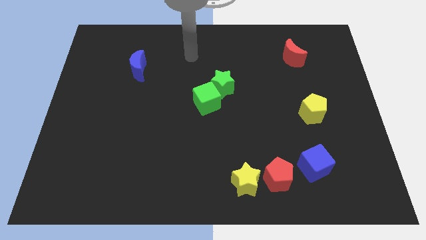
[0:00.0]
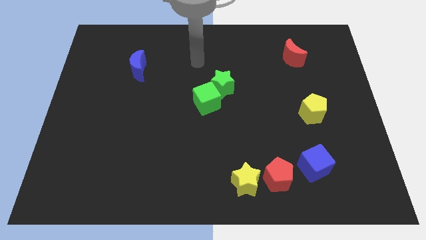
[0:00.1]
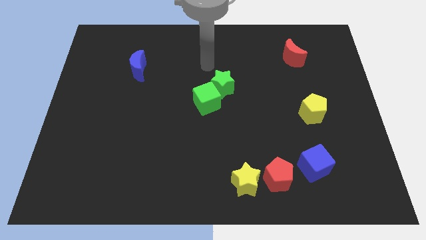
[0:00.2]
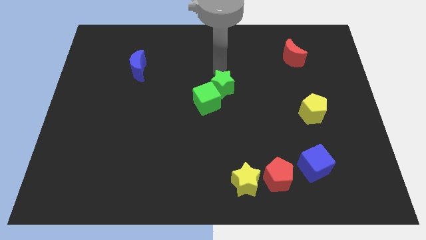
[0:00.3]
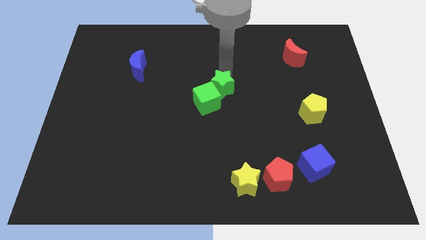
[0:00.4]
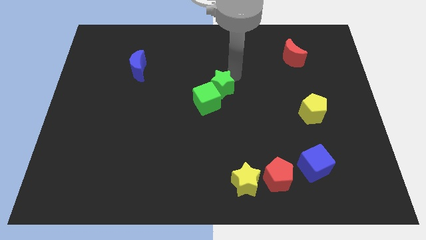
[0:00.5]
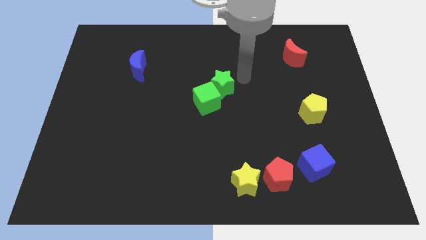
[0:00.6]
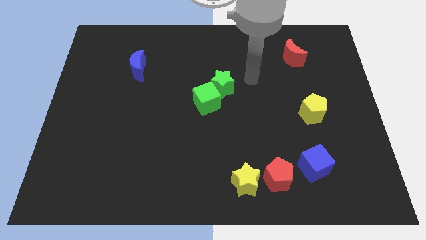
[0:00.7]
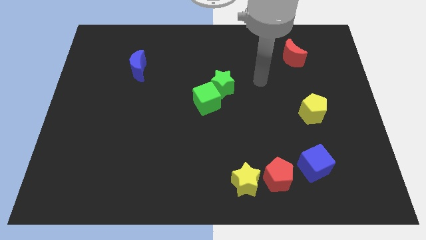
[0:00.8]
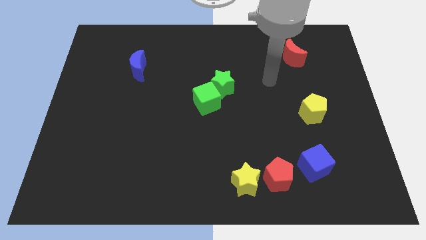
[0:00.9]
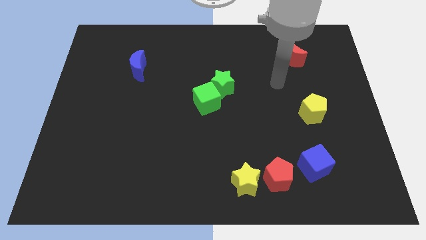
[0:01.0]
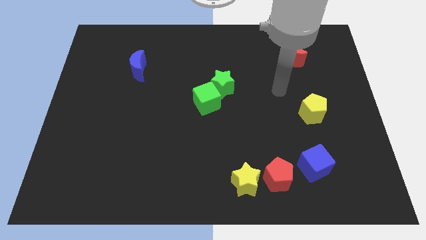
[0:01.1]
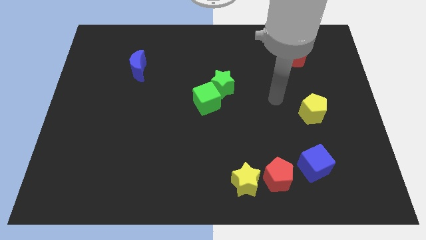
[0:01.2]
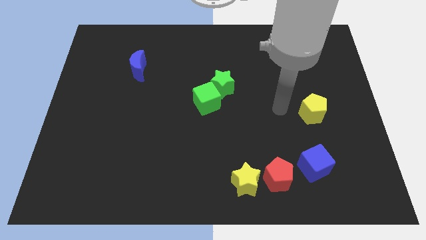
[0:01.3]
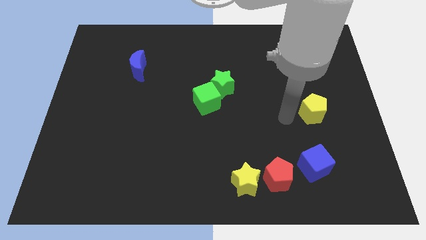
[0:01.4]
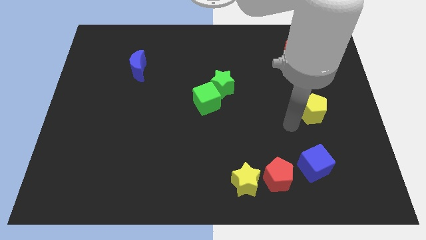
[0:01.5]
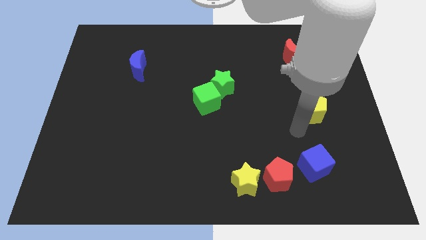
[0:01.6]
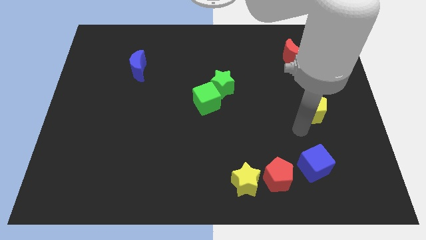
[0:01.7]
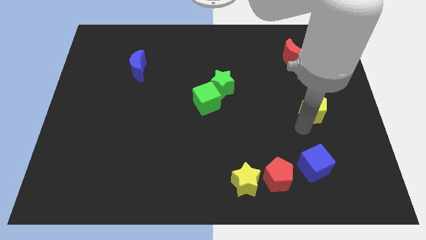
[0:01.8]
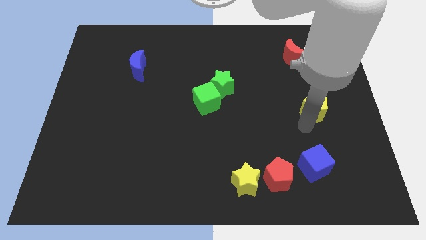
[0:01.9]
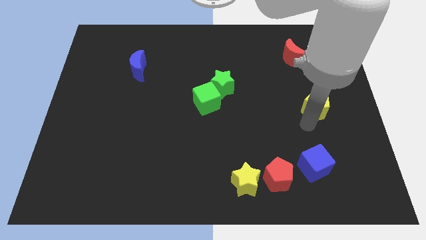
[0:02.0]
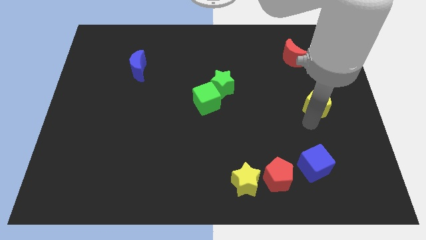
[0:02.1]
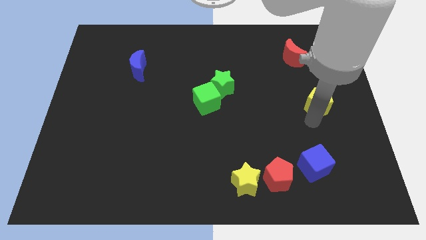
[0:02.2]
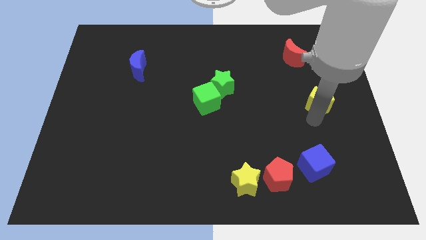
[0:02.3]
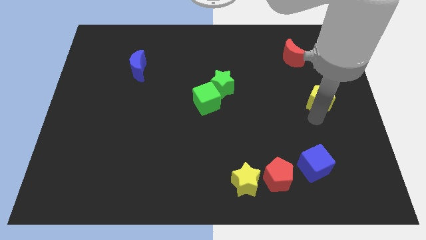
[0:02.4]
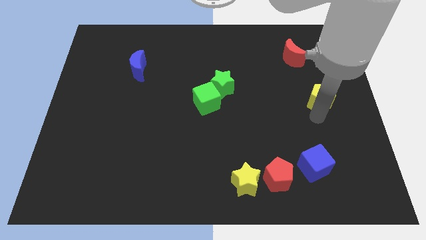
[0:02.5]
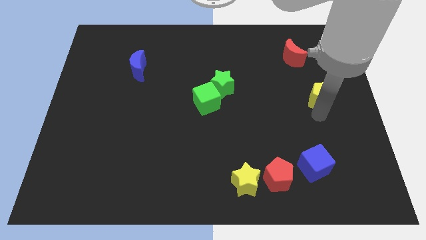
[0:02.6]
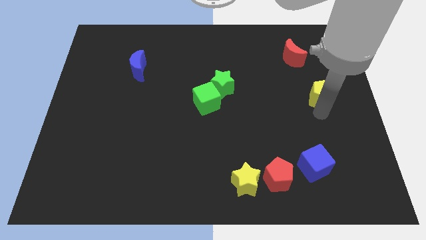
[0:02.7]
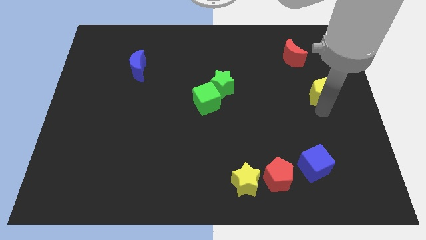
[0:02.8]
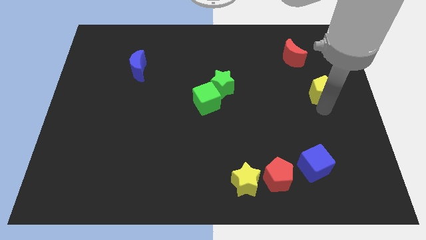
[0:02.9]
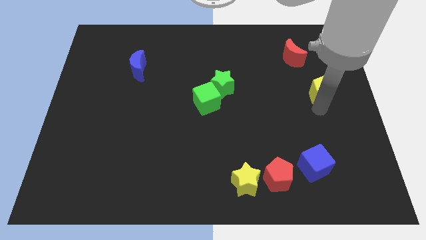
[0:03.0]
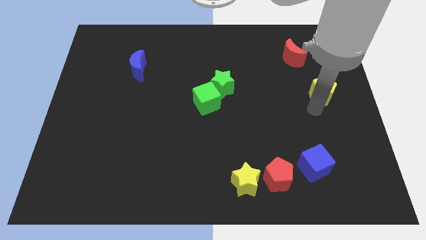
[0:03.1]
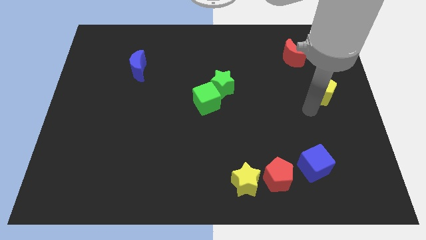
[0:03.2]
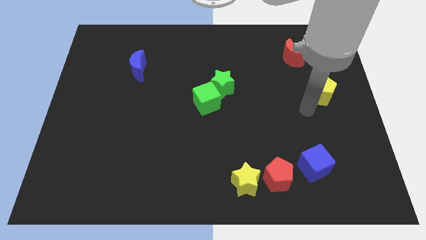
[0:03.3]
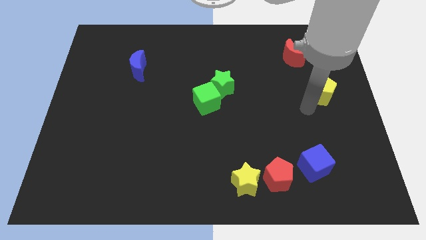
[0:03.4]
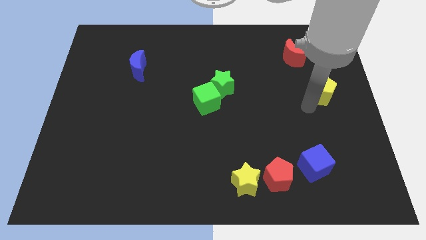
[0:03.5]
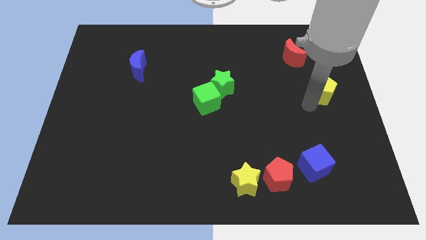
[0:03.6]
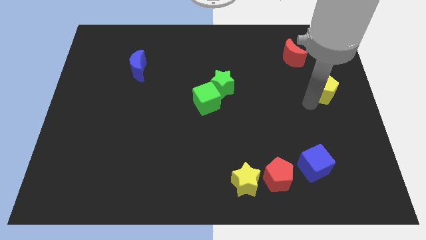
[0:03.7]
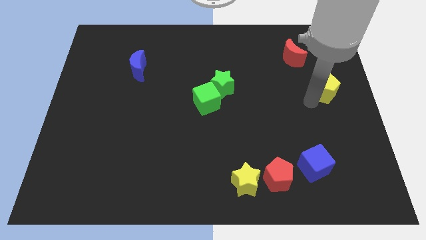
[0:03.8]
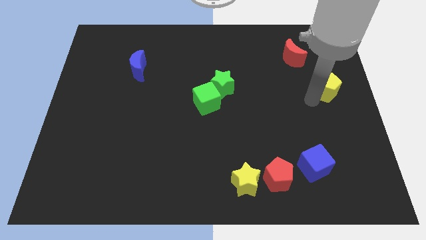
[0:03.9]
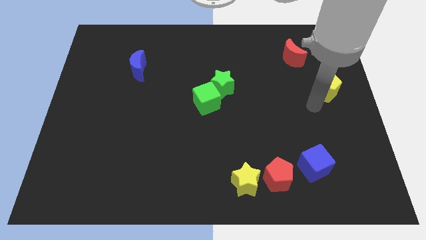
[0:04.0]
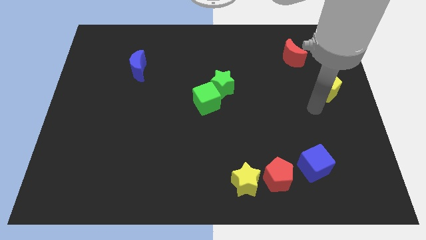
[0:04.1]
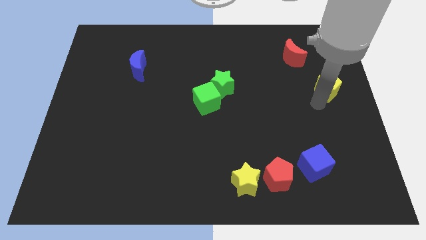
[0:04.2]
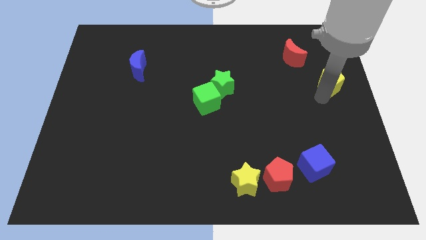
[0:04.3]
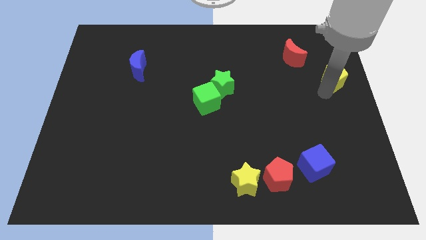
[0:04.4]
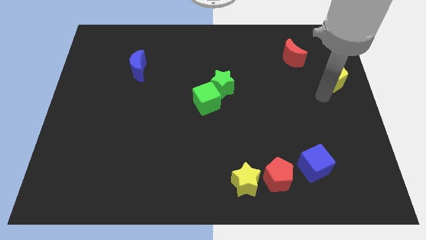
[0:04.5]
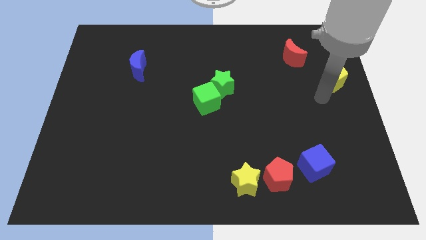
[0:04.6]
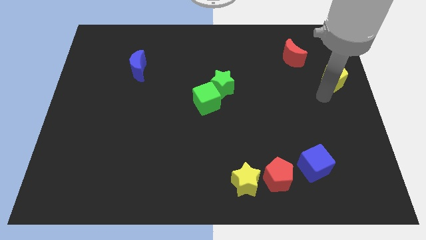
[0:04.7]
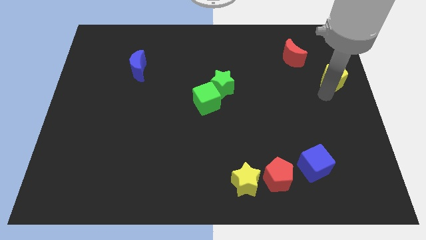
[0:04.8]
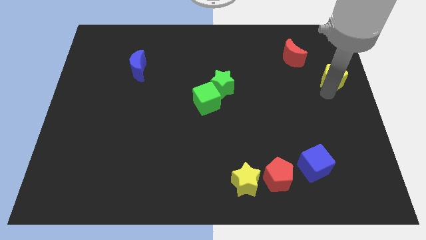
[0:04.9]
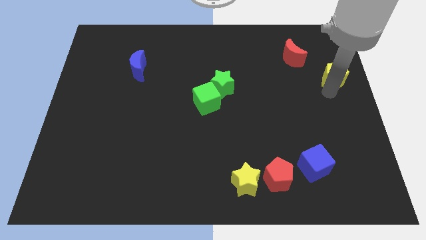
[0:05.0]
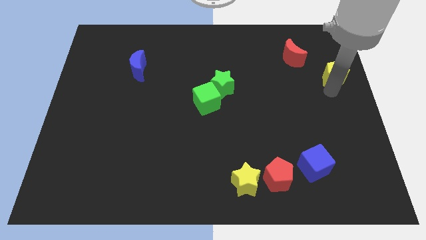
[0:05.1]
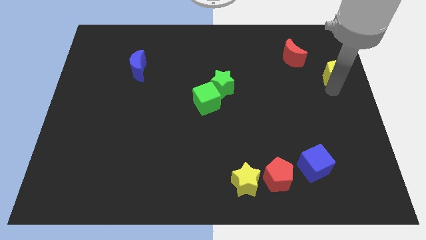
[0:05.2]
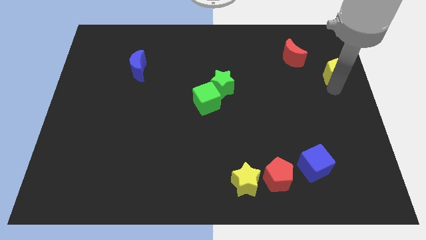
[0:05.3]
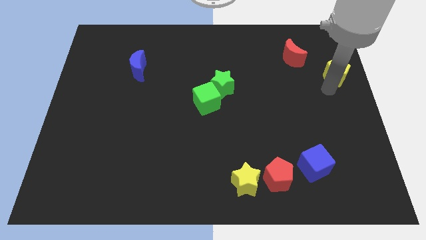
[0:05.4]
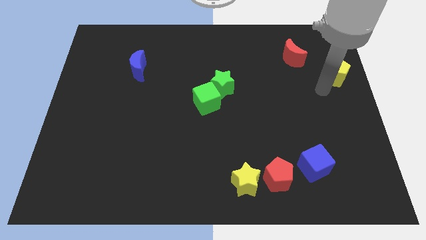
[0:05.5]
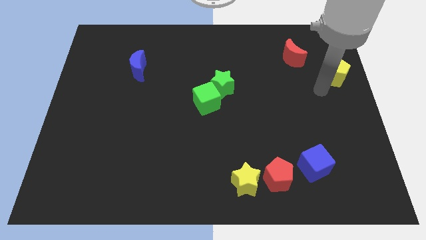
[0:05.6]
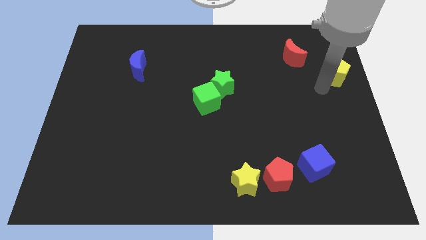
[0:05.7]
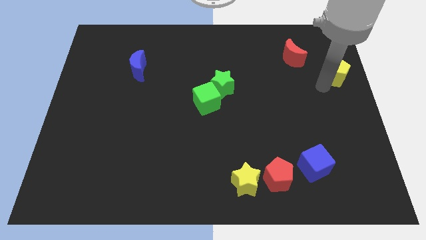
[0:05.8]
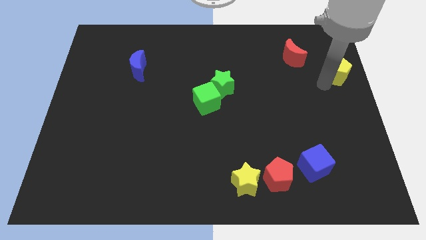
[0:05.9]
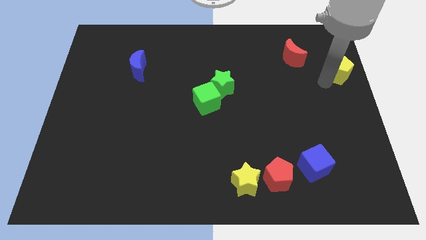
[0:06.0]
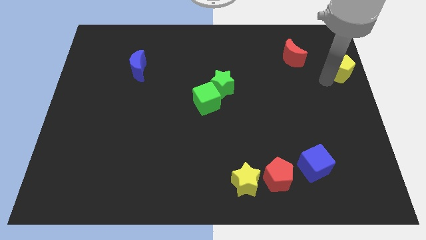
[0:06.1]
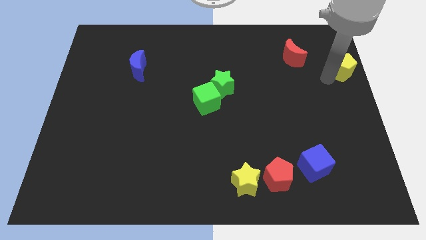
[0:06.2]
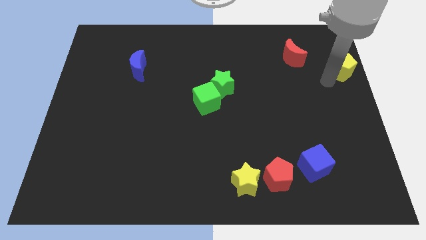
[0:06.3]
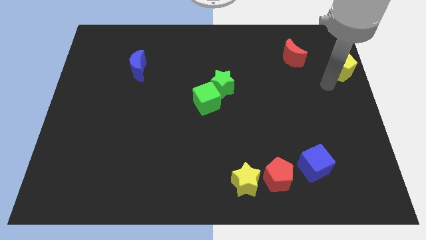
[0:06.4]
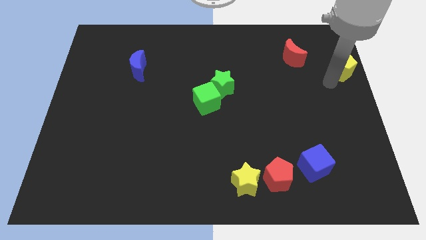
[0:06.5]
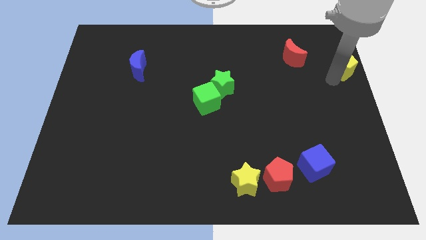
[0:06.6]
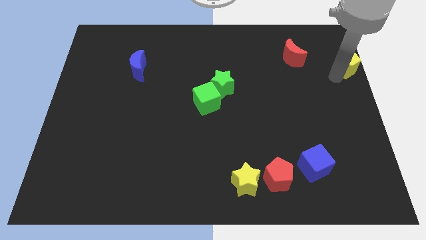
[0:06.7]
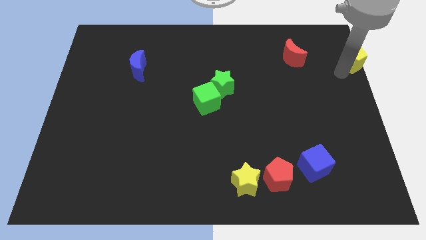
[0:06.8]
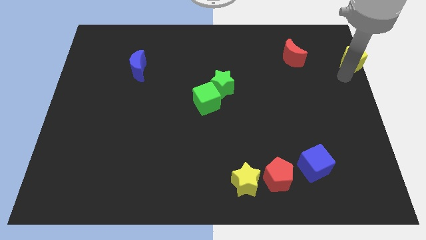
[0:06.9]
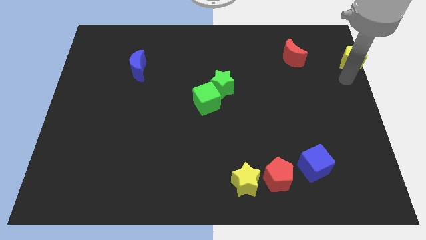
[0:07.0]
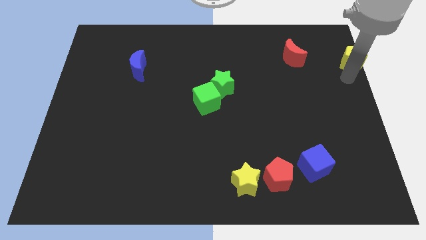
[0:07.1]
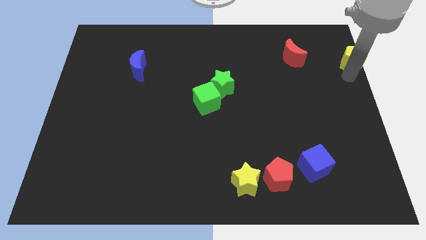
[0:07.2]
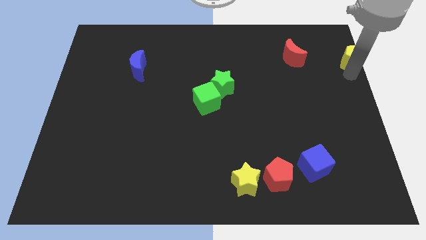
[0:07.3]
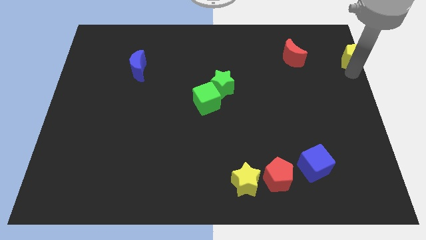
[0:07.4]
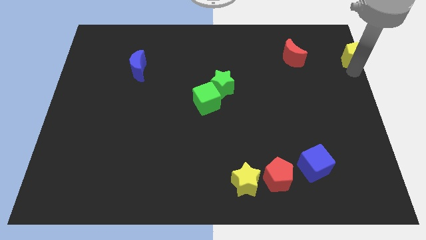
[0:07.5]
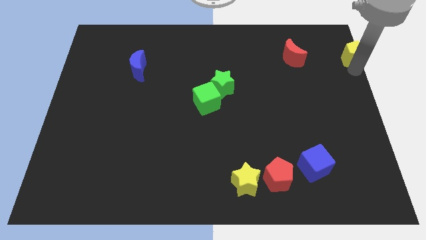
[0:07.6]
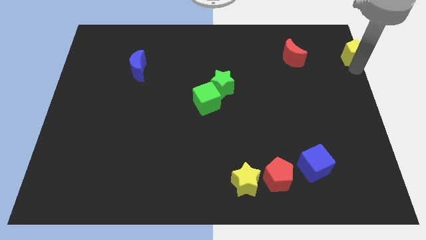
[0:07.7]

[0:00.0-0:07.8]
slide the yellow pentagon to the upper right corner
